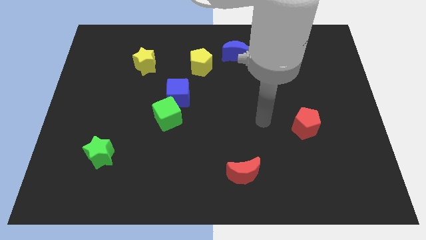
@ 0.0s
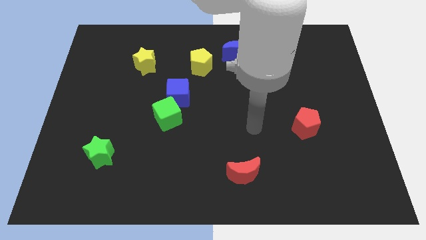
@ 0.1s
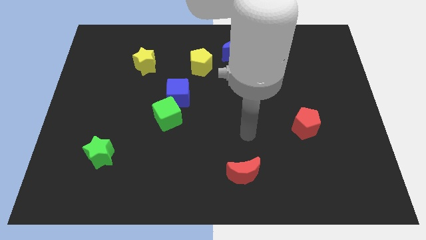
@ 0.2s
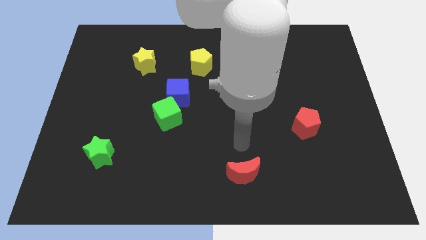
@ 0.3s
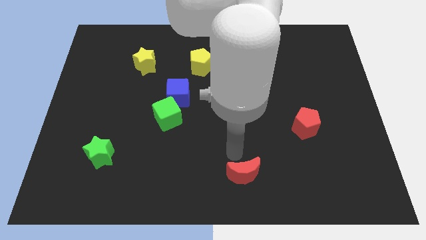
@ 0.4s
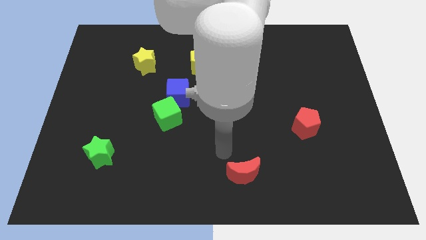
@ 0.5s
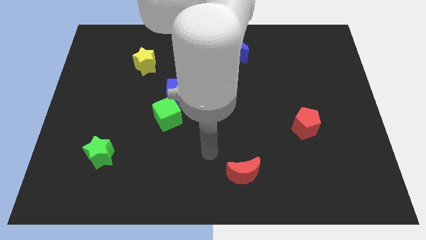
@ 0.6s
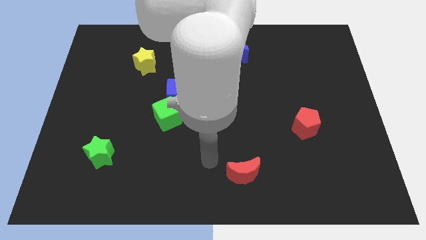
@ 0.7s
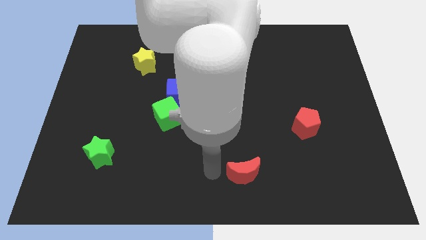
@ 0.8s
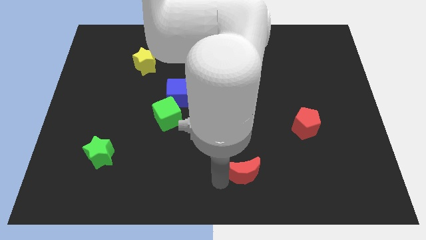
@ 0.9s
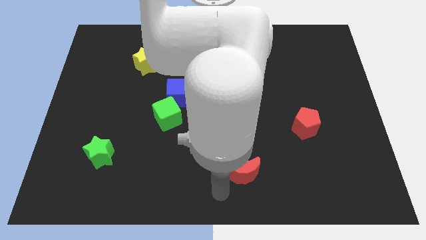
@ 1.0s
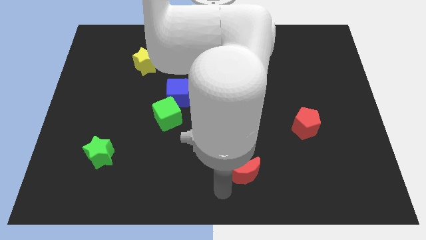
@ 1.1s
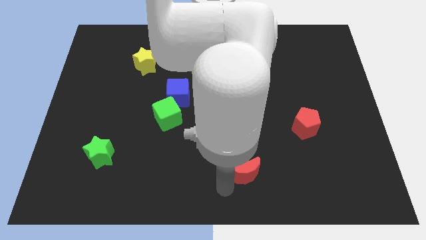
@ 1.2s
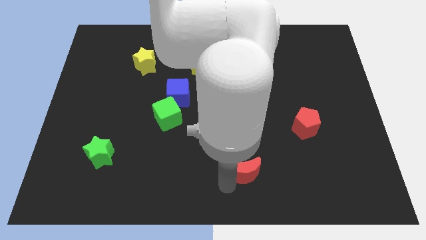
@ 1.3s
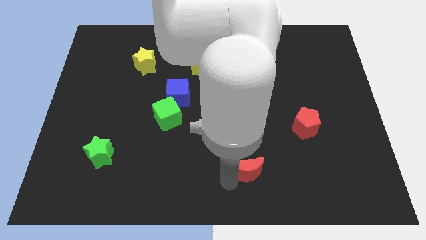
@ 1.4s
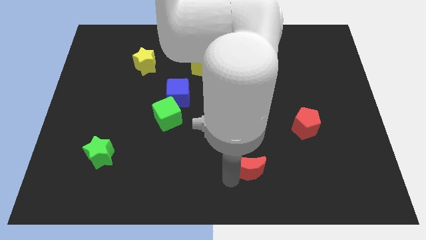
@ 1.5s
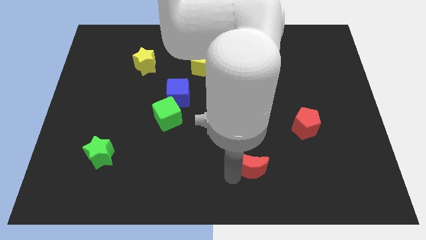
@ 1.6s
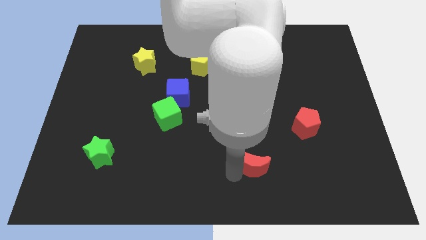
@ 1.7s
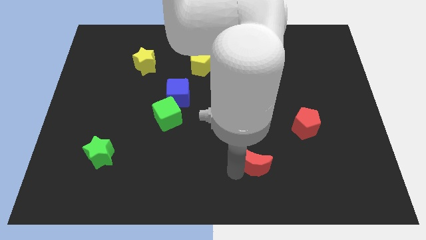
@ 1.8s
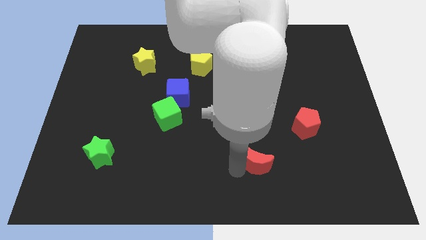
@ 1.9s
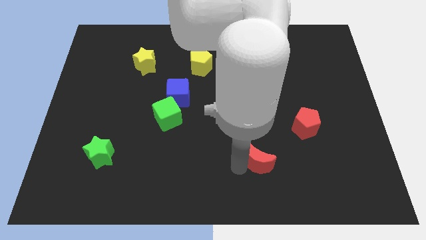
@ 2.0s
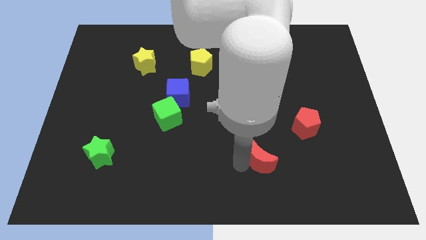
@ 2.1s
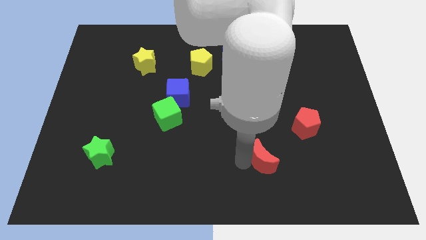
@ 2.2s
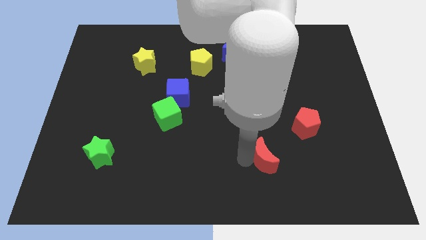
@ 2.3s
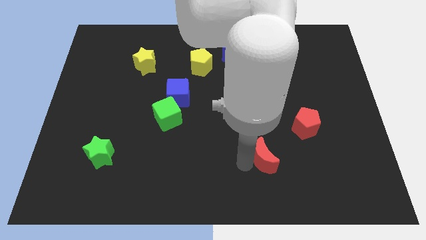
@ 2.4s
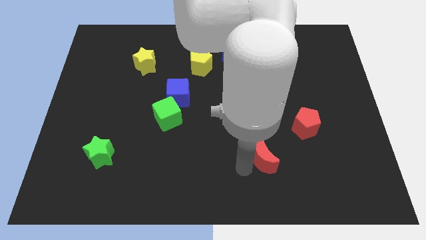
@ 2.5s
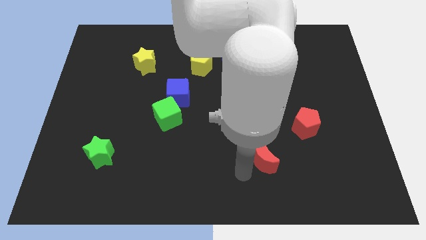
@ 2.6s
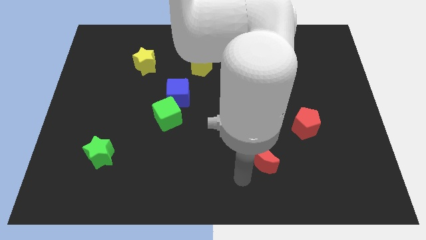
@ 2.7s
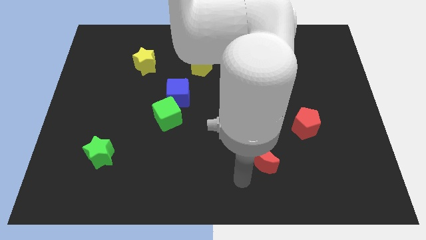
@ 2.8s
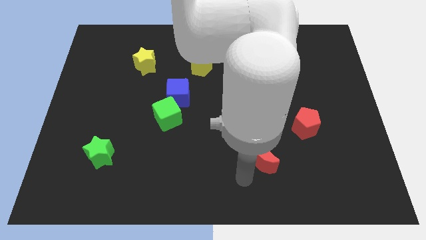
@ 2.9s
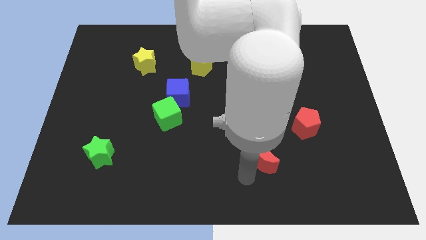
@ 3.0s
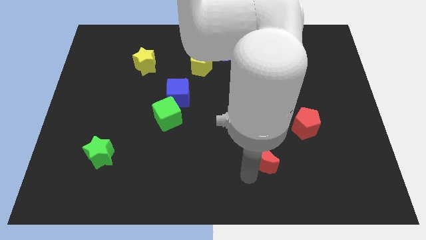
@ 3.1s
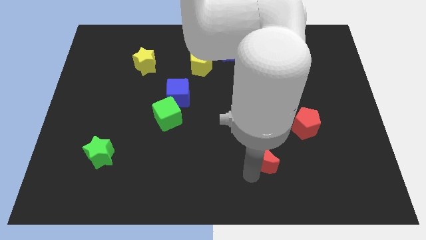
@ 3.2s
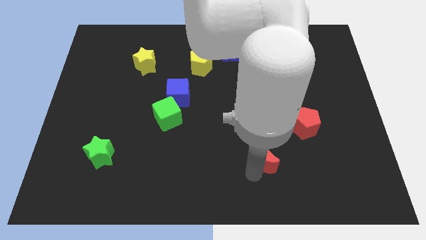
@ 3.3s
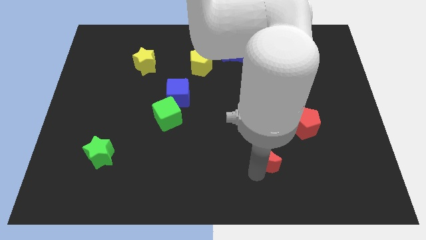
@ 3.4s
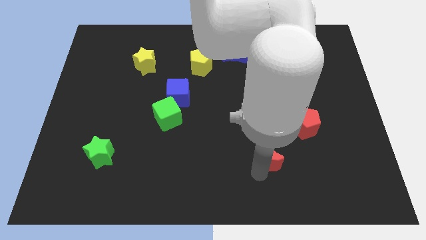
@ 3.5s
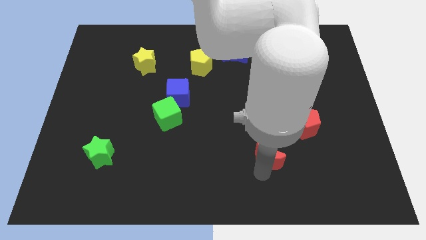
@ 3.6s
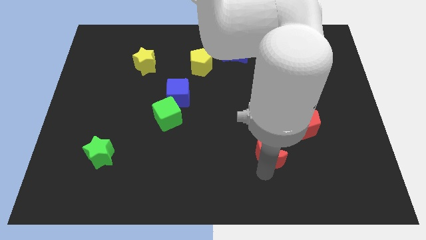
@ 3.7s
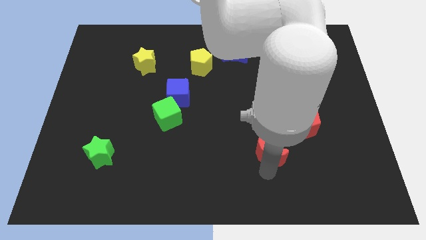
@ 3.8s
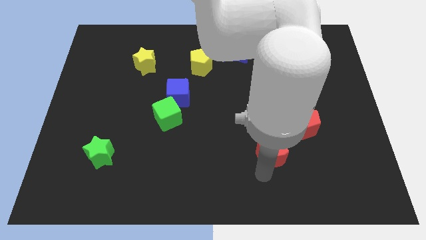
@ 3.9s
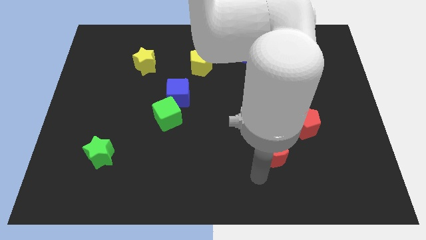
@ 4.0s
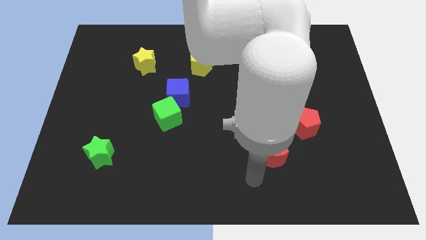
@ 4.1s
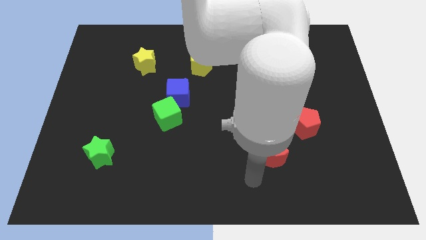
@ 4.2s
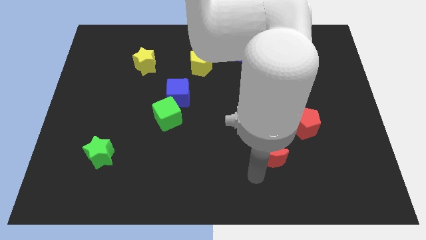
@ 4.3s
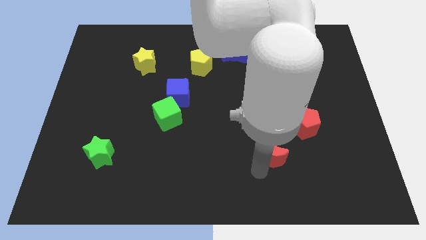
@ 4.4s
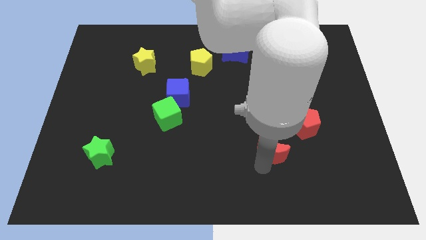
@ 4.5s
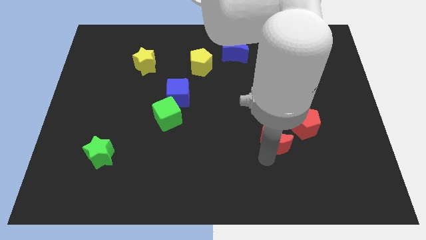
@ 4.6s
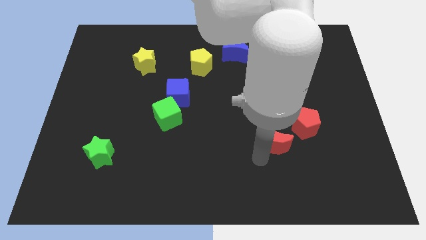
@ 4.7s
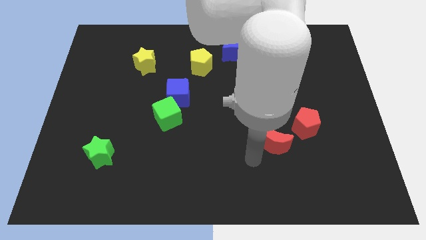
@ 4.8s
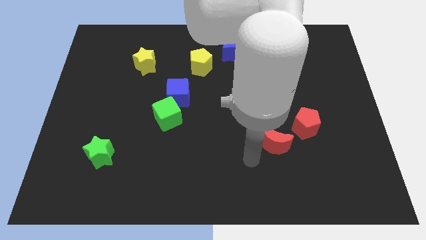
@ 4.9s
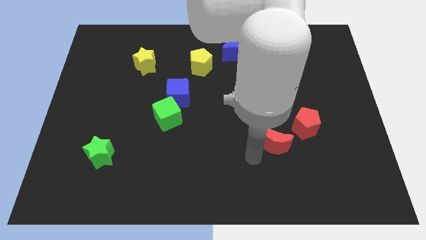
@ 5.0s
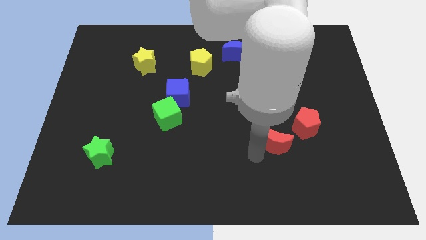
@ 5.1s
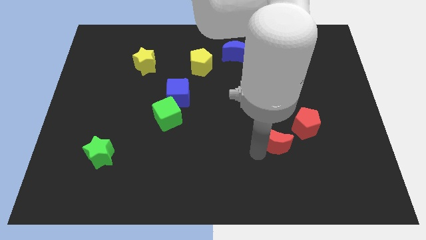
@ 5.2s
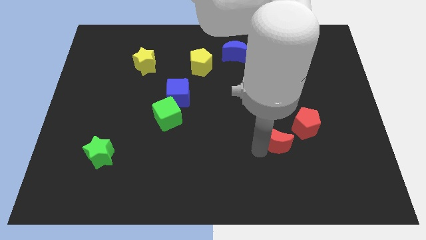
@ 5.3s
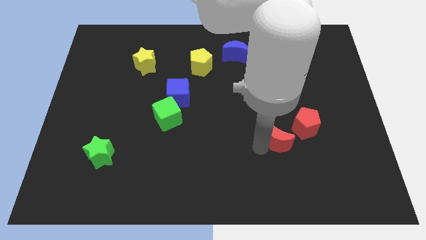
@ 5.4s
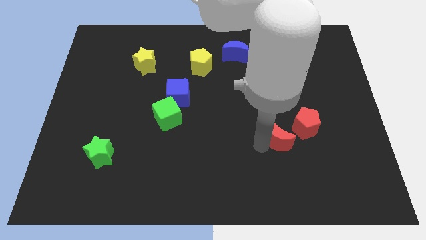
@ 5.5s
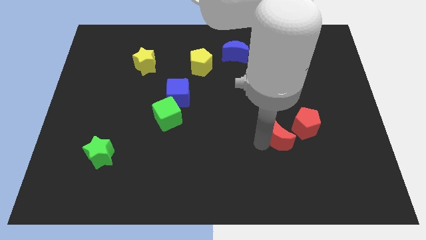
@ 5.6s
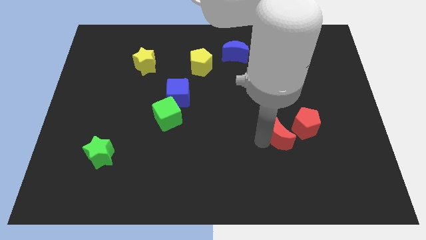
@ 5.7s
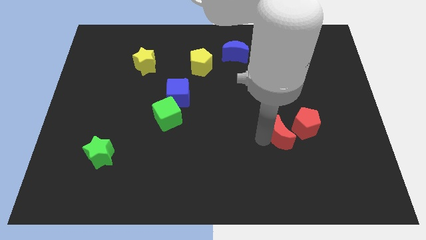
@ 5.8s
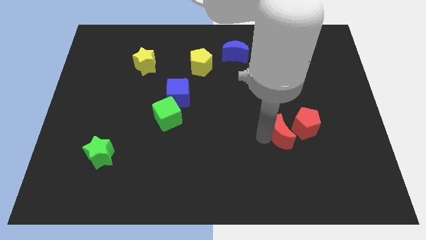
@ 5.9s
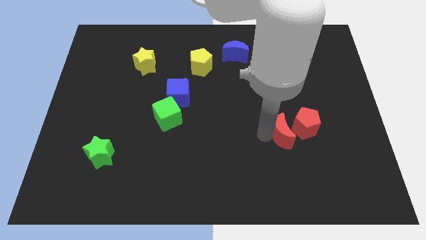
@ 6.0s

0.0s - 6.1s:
slide the red moon close to the red pentagon

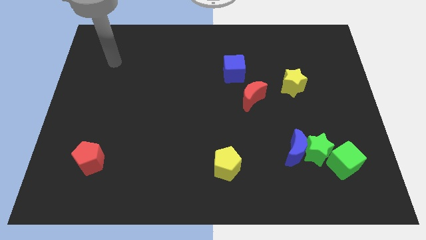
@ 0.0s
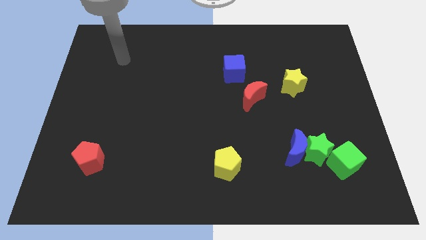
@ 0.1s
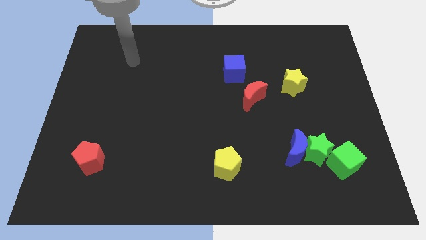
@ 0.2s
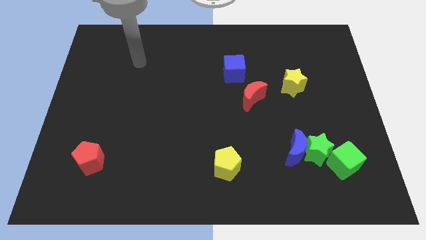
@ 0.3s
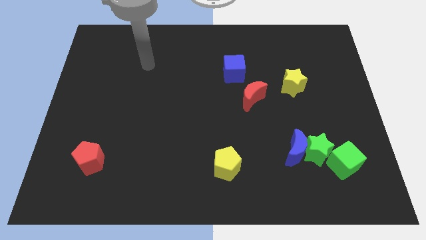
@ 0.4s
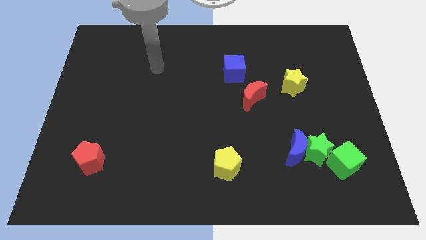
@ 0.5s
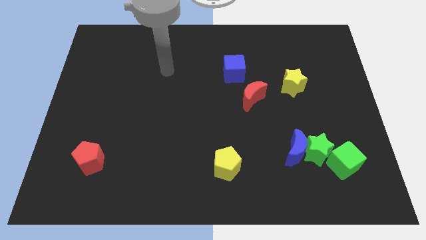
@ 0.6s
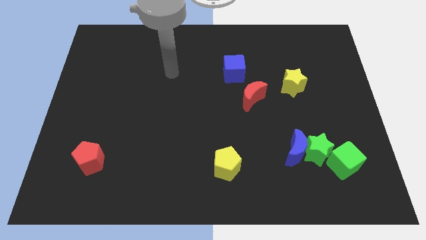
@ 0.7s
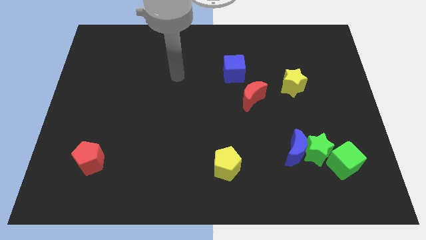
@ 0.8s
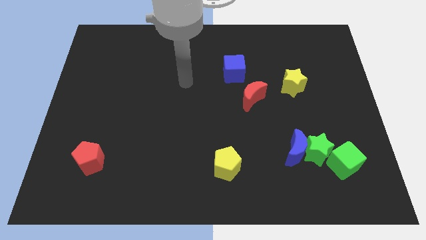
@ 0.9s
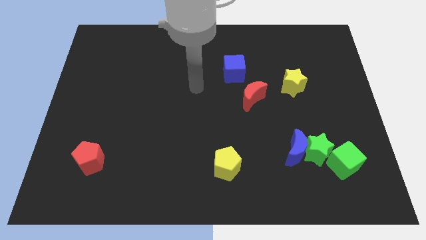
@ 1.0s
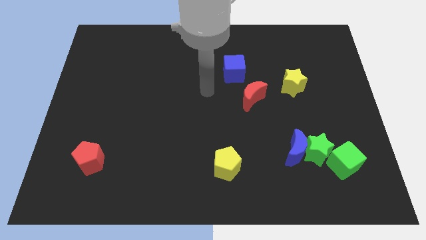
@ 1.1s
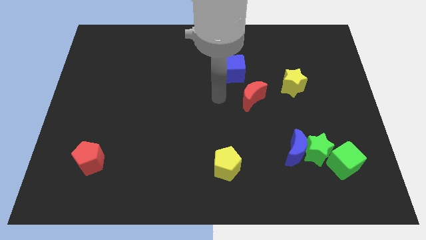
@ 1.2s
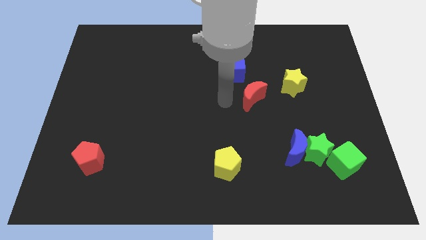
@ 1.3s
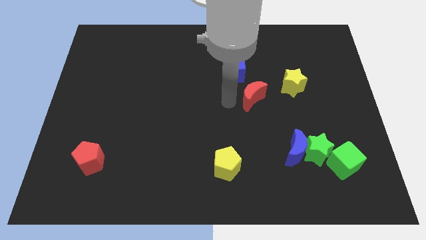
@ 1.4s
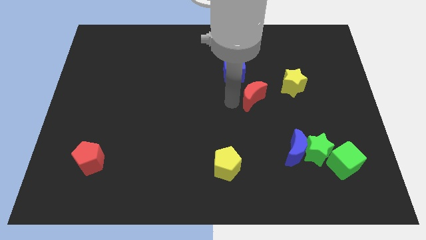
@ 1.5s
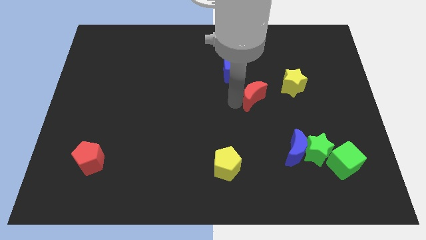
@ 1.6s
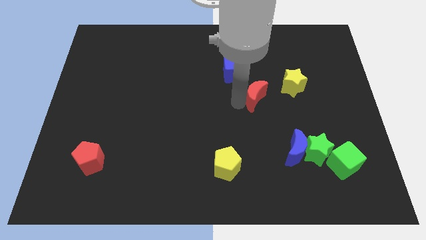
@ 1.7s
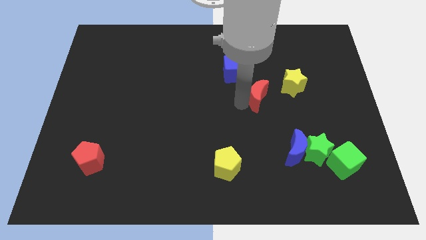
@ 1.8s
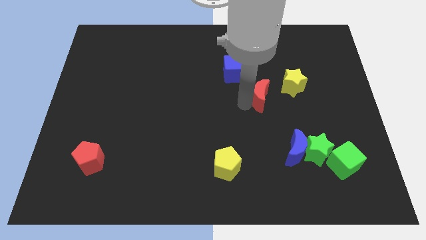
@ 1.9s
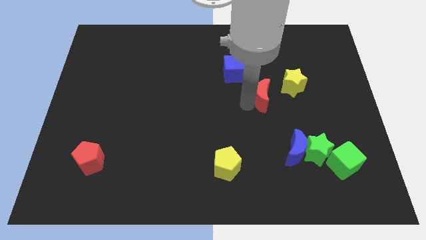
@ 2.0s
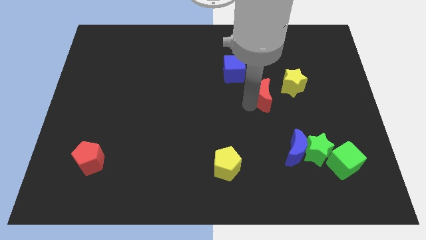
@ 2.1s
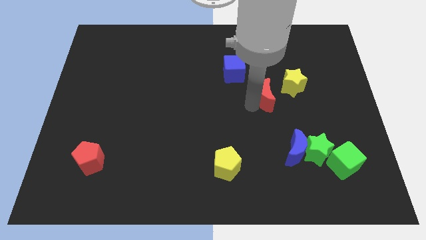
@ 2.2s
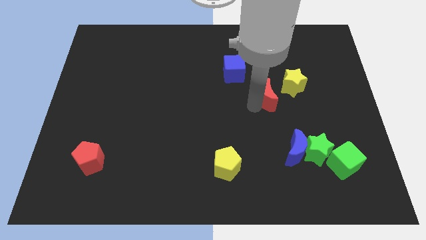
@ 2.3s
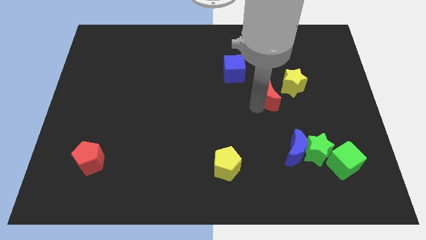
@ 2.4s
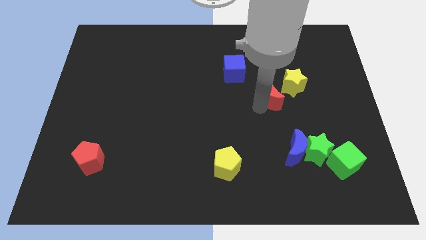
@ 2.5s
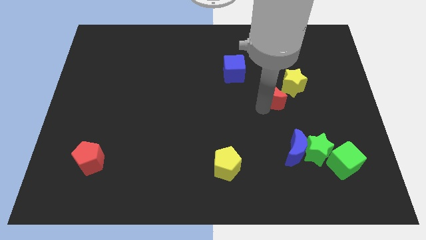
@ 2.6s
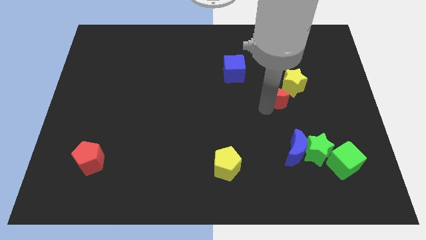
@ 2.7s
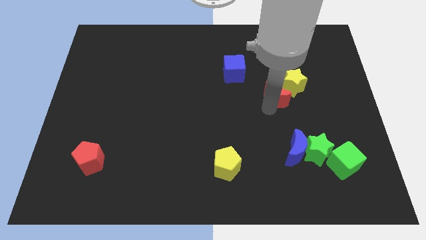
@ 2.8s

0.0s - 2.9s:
move the red moon towards the yellow star
